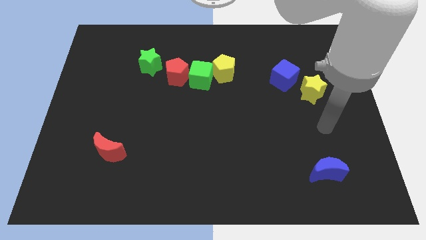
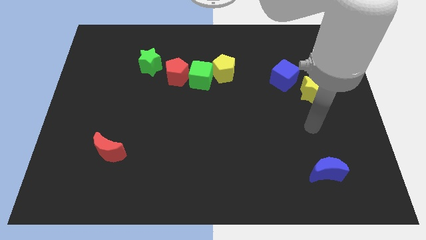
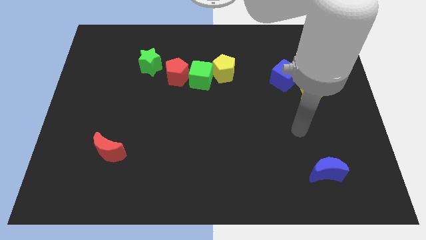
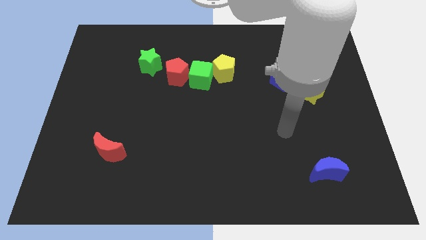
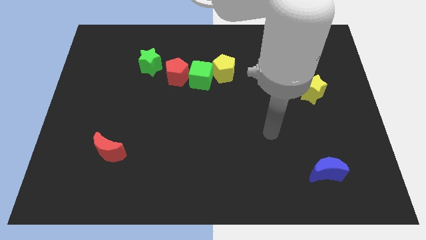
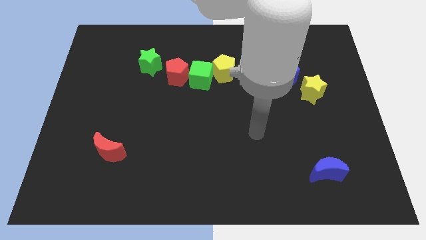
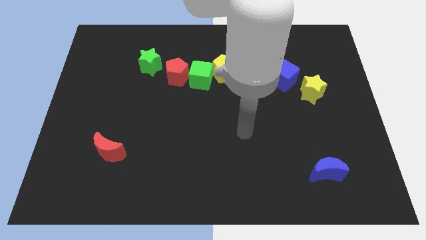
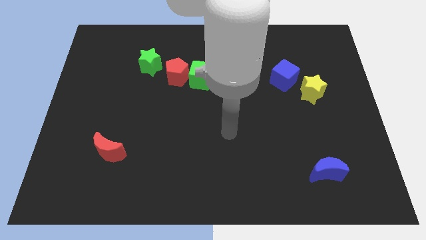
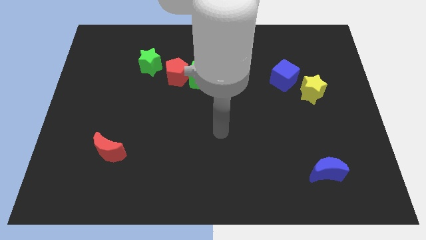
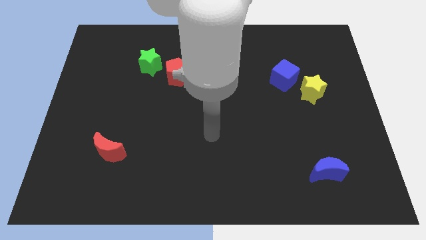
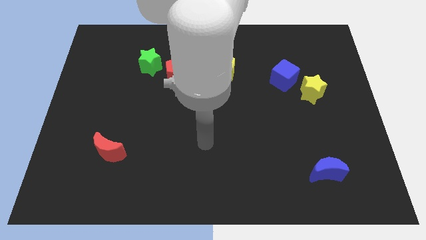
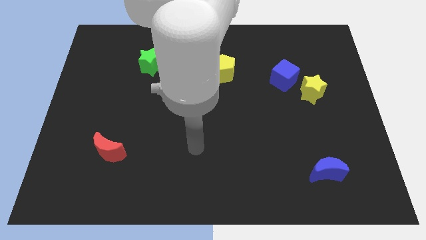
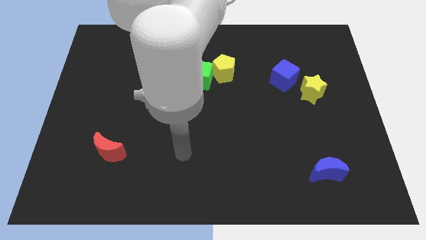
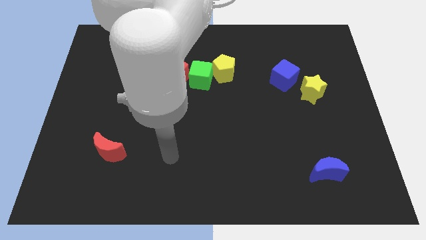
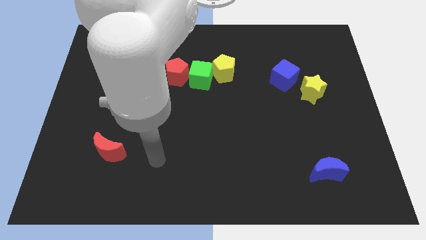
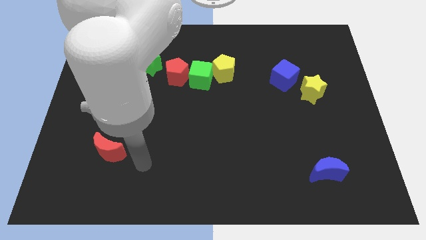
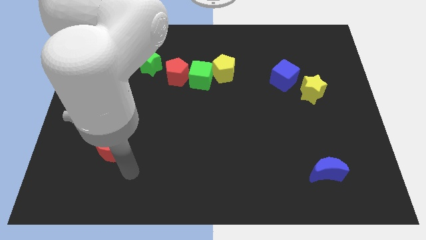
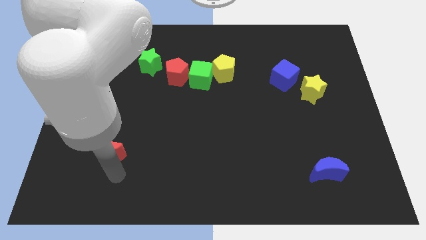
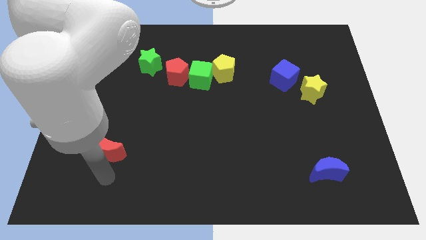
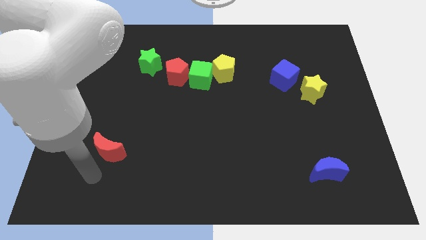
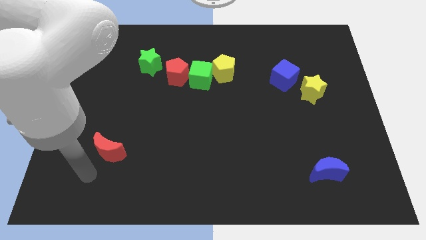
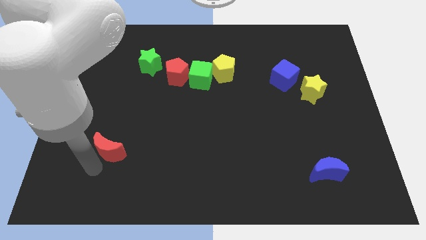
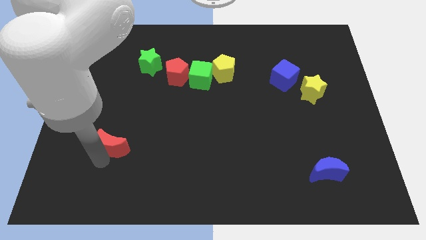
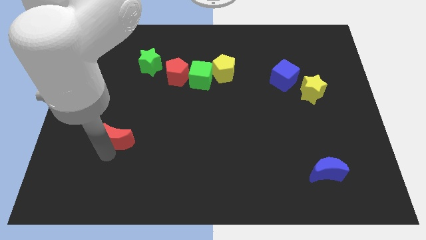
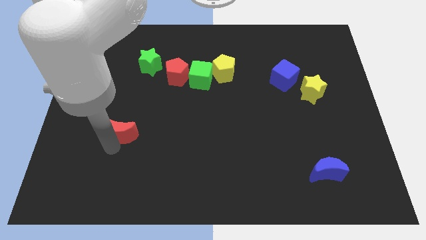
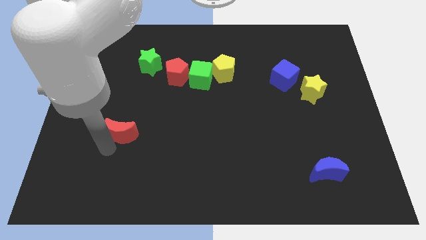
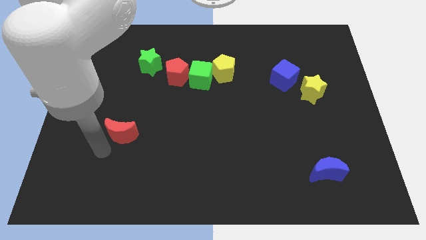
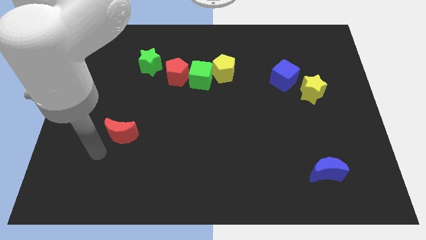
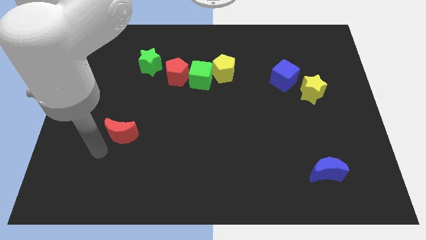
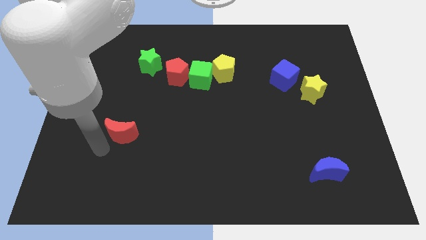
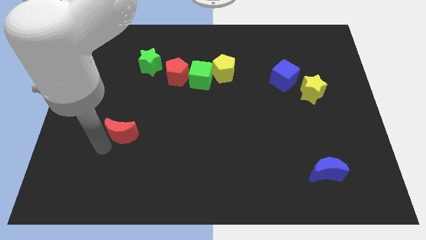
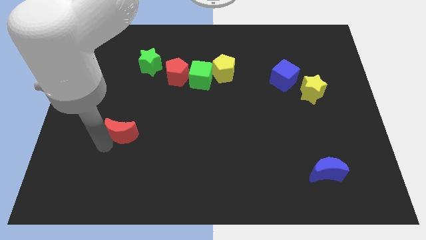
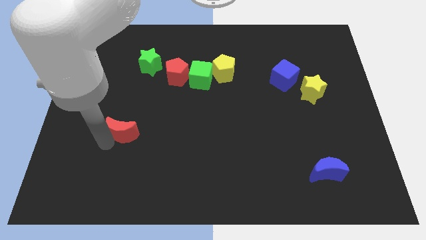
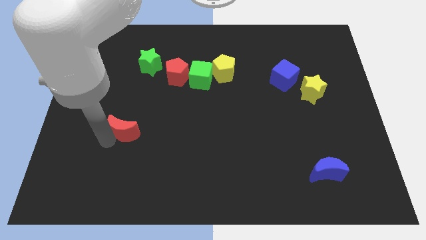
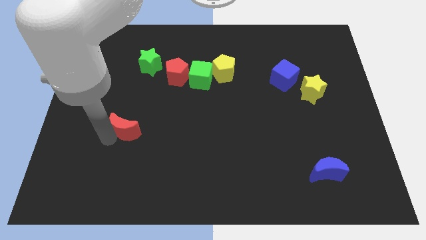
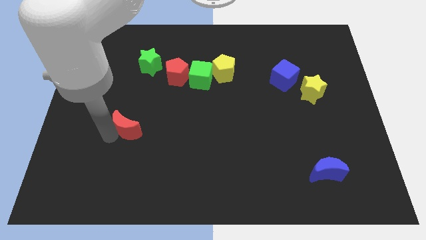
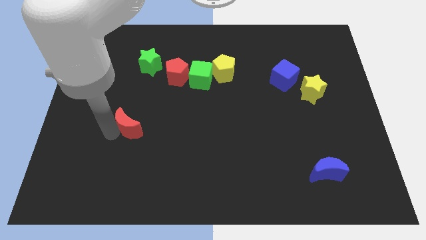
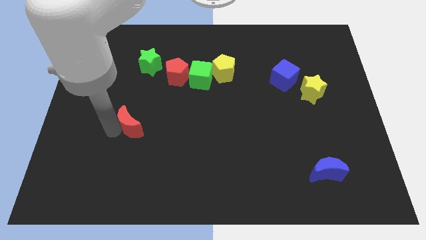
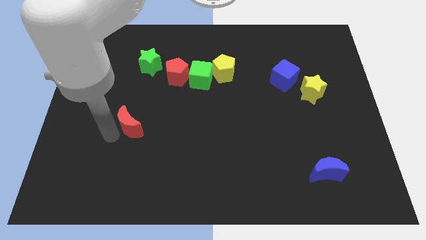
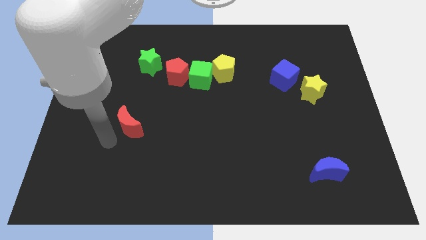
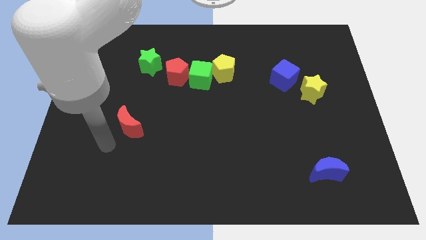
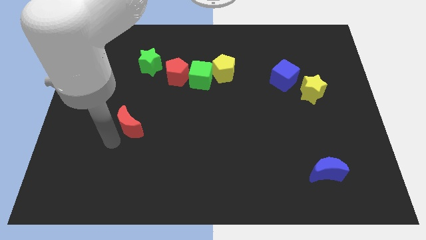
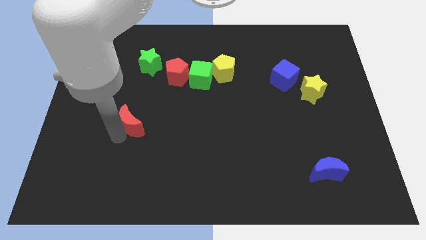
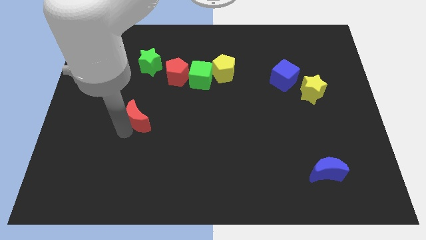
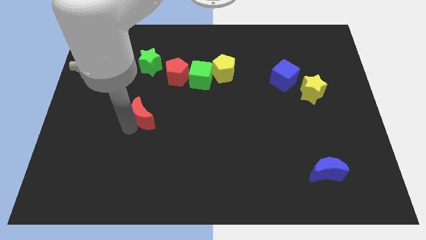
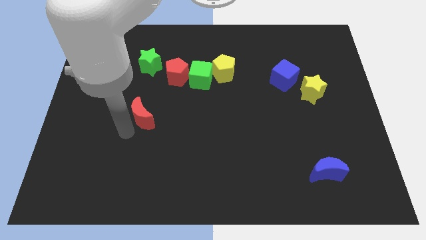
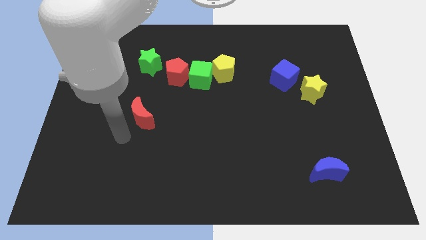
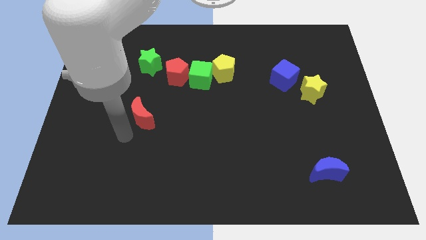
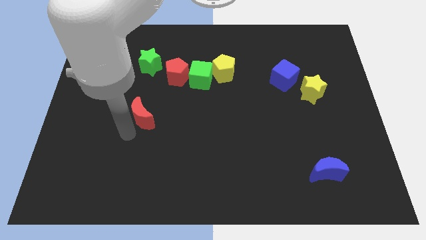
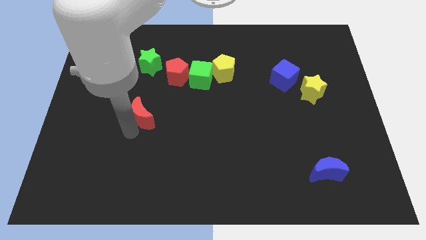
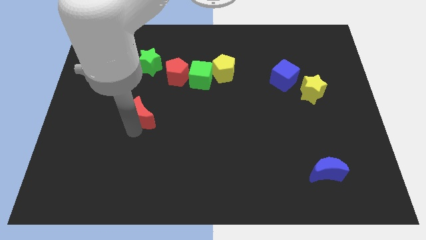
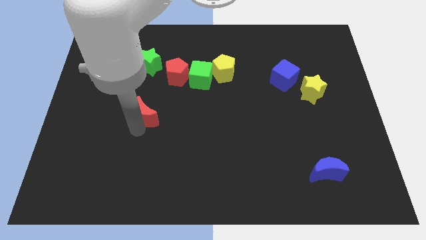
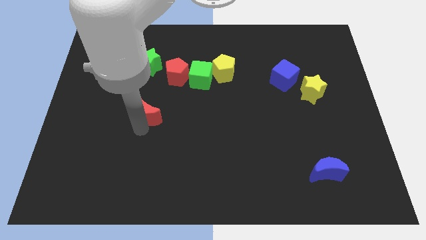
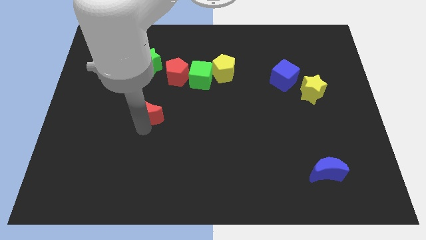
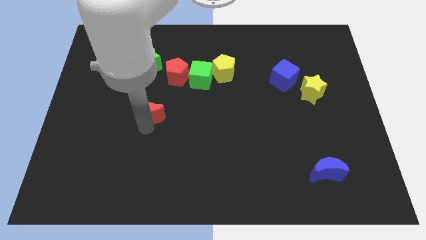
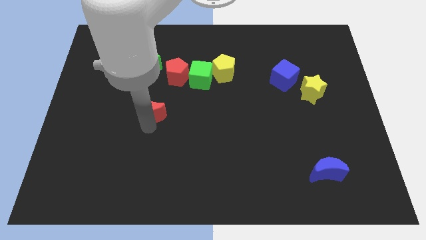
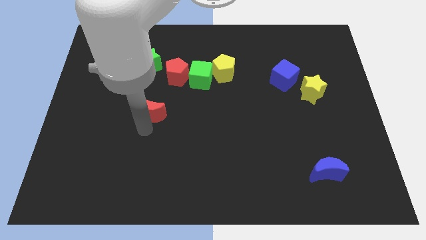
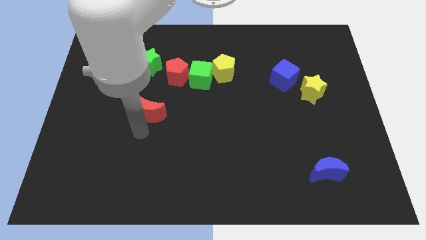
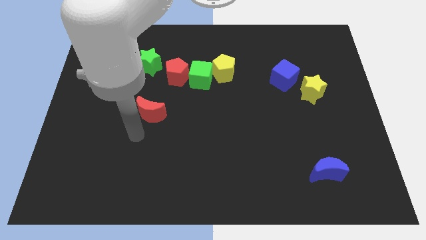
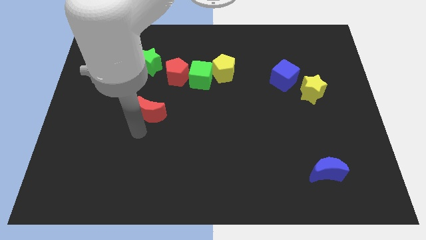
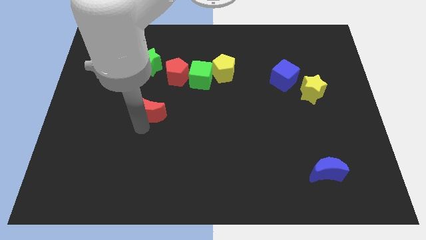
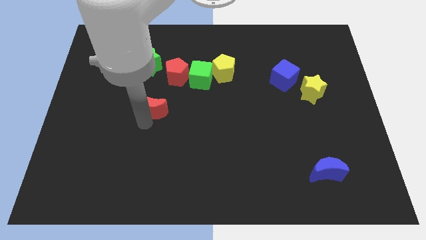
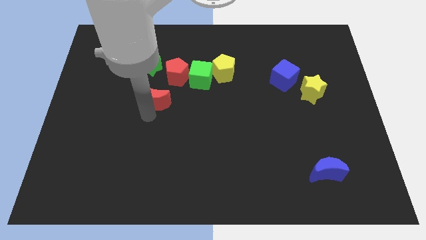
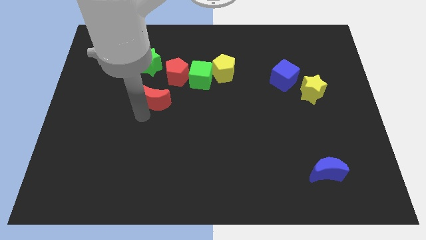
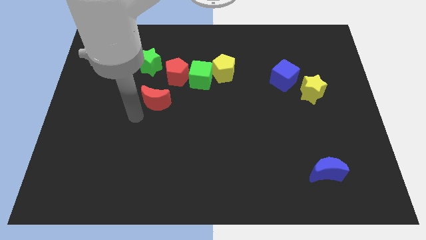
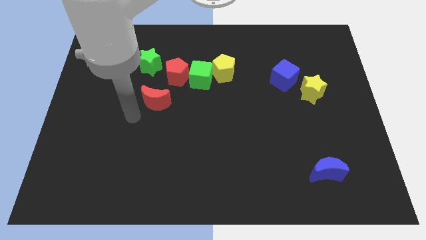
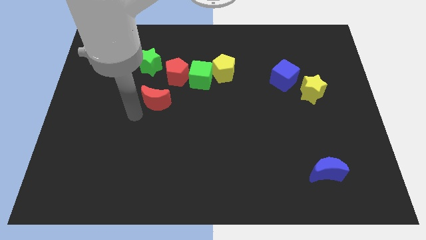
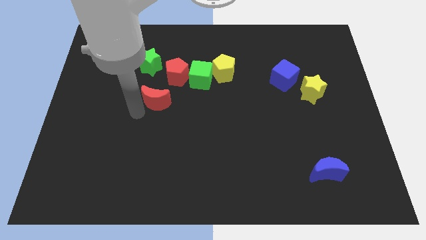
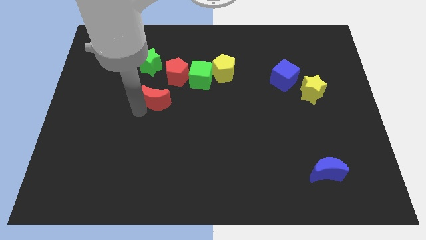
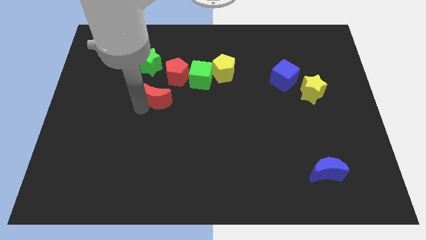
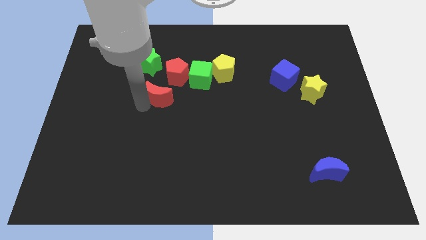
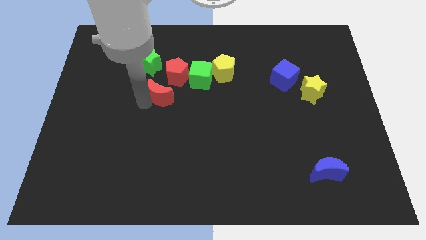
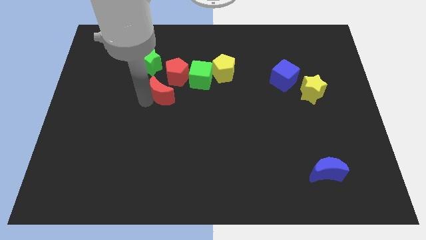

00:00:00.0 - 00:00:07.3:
move the red moon to the bottom right side of the green star
